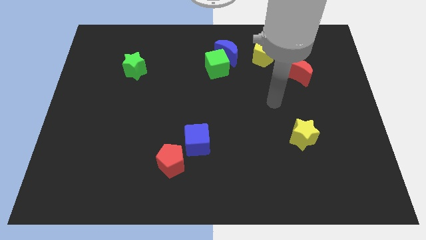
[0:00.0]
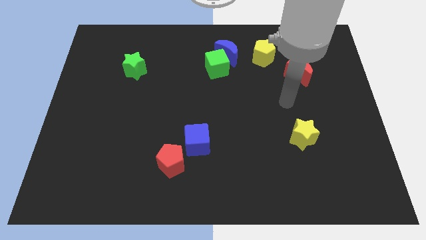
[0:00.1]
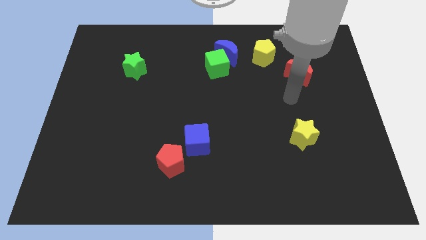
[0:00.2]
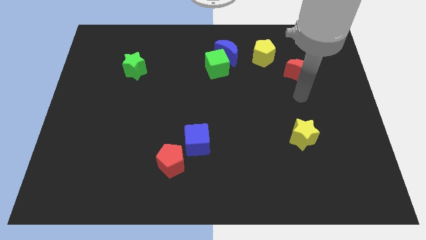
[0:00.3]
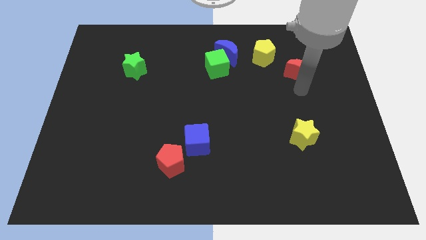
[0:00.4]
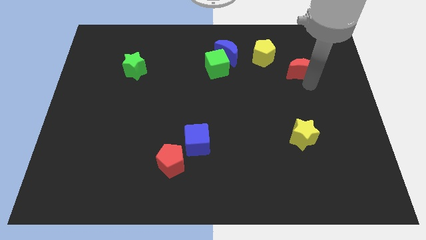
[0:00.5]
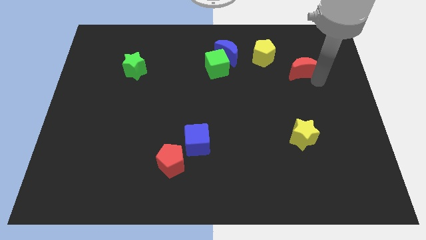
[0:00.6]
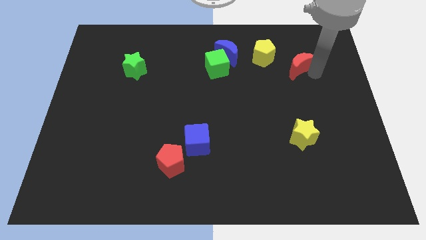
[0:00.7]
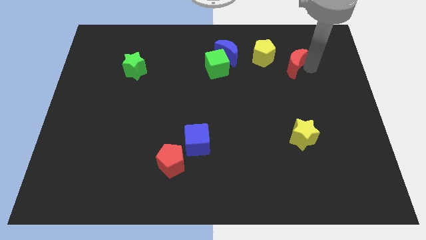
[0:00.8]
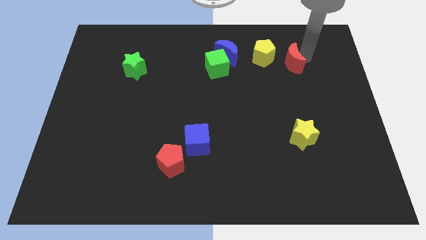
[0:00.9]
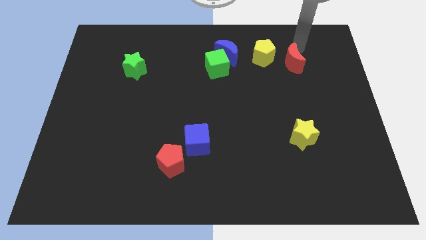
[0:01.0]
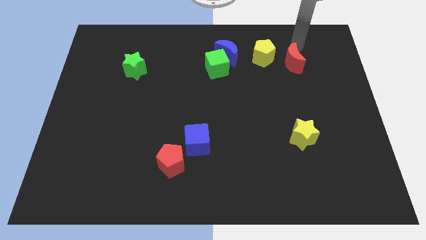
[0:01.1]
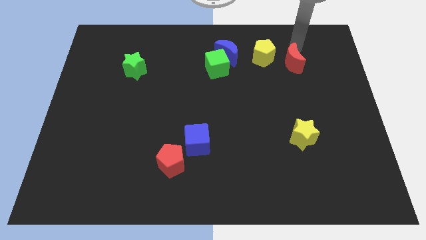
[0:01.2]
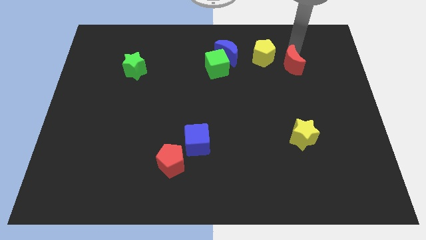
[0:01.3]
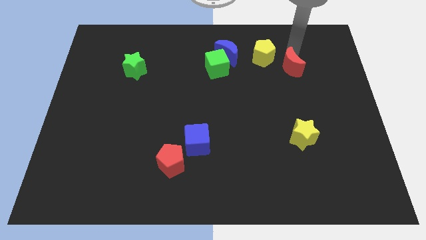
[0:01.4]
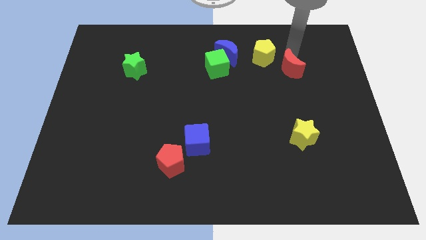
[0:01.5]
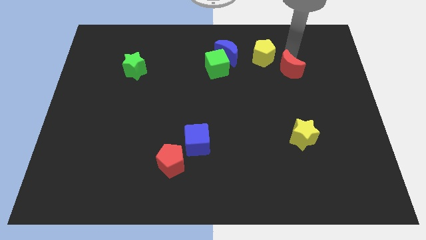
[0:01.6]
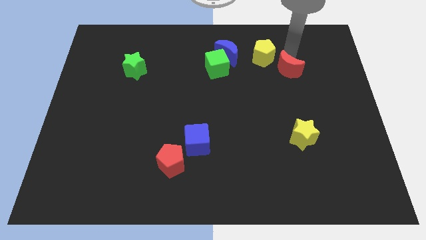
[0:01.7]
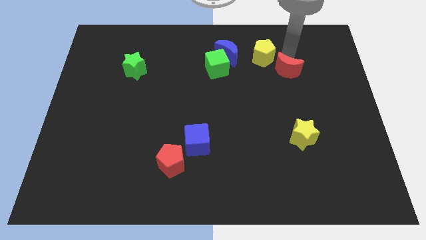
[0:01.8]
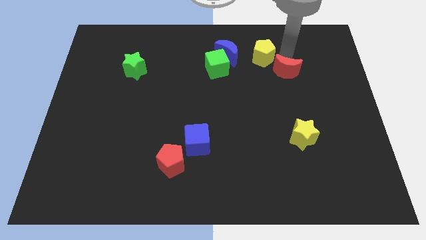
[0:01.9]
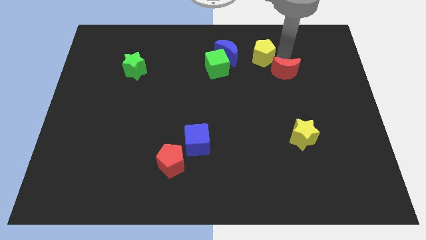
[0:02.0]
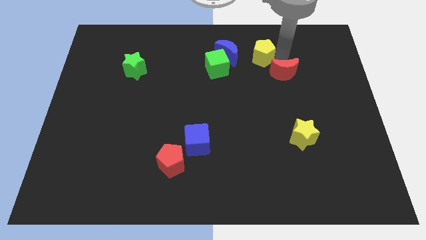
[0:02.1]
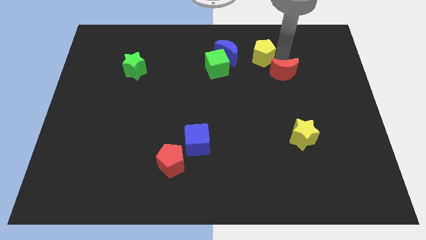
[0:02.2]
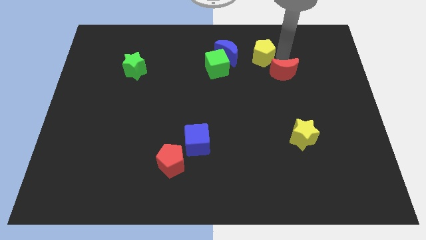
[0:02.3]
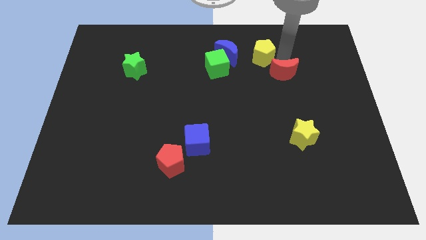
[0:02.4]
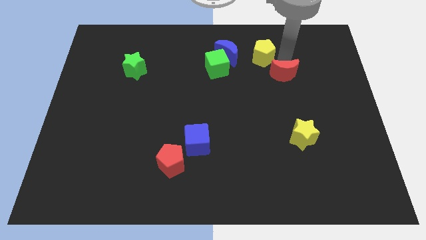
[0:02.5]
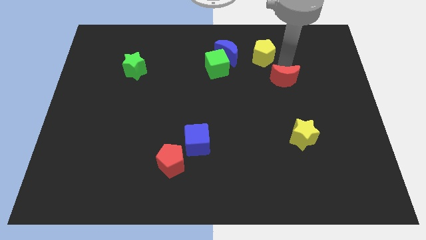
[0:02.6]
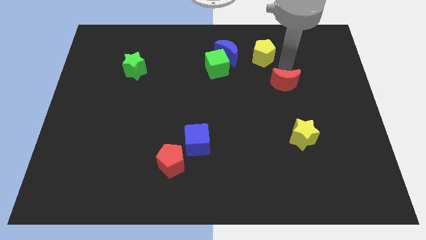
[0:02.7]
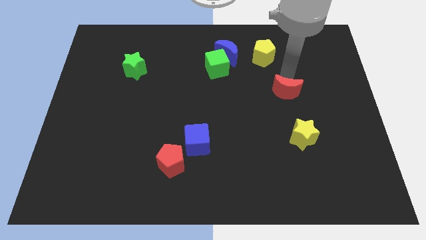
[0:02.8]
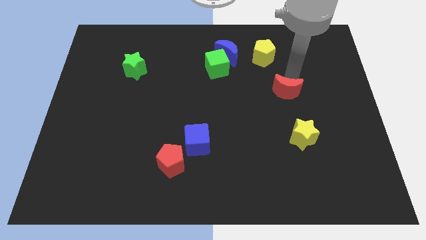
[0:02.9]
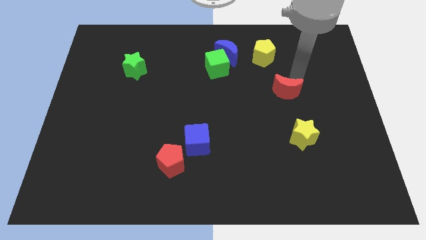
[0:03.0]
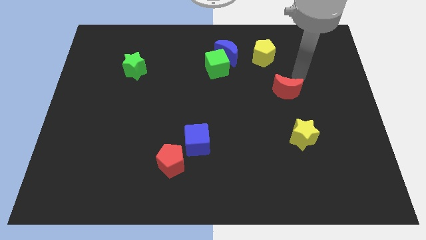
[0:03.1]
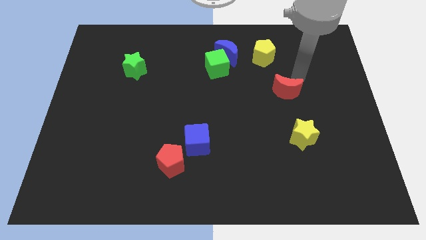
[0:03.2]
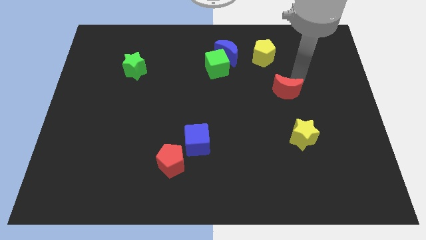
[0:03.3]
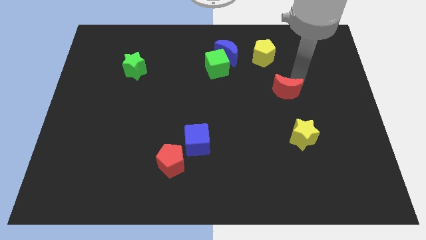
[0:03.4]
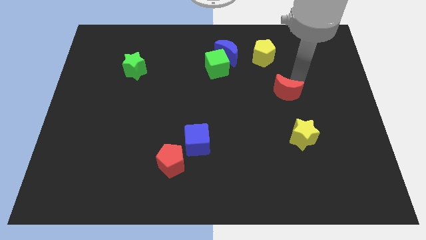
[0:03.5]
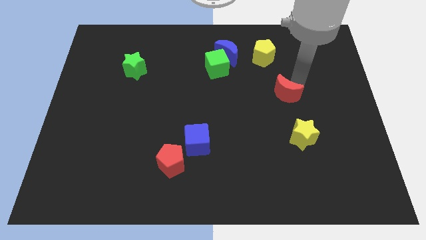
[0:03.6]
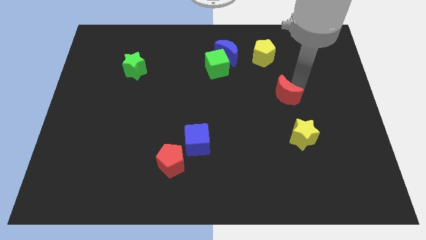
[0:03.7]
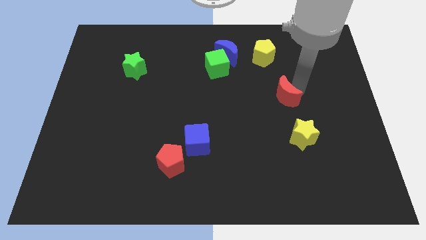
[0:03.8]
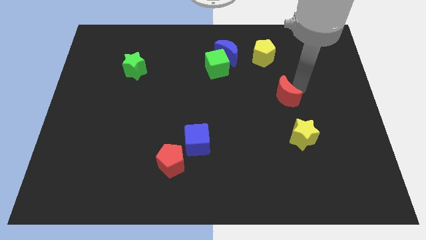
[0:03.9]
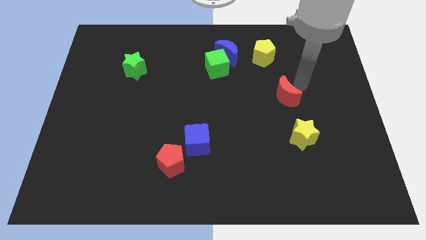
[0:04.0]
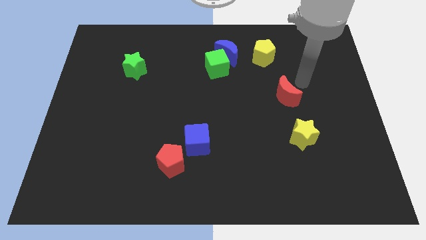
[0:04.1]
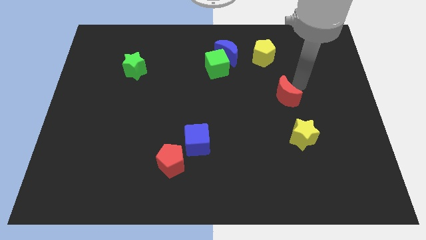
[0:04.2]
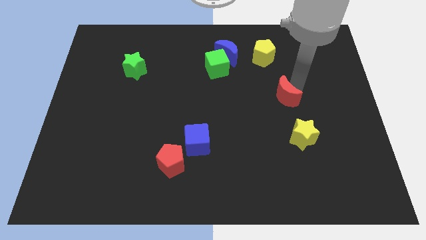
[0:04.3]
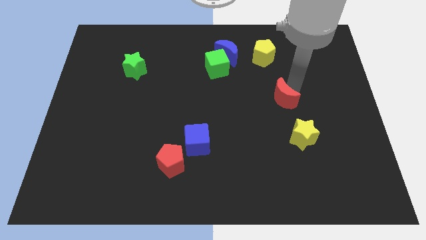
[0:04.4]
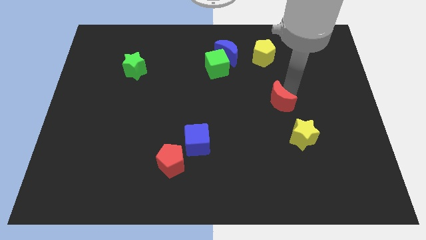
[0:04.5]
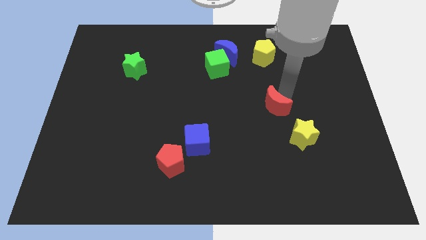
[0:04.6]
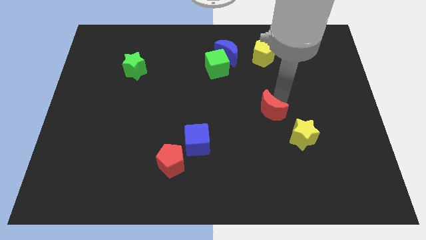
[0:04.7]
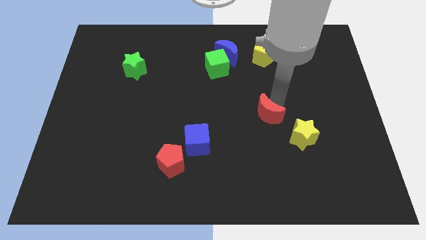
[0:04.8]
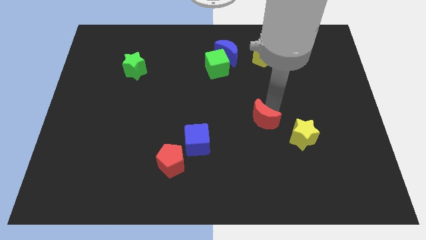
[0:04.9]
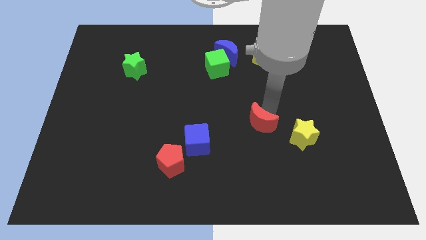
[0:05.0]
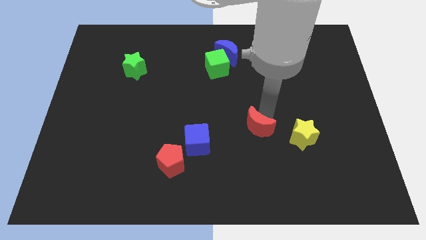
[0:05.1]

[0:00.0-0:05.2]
push the red moon to the right side of the blue cube

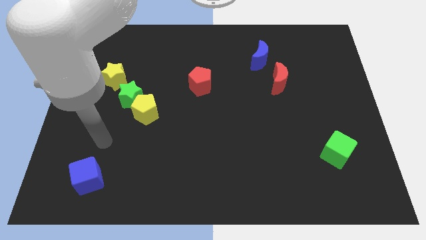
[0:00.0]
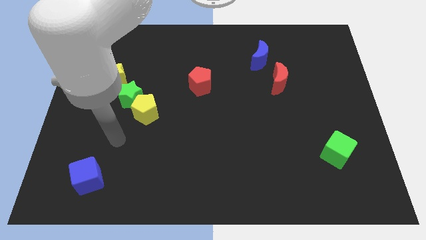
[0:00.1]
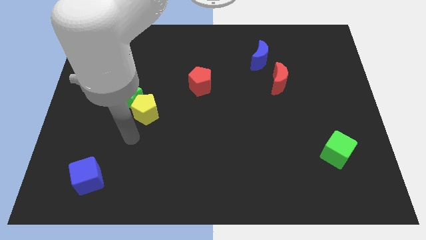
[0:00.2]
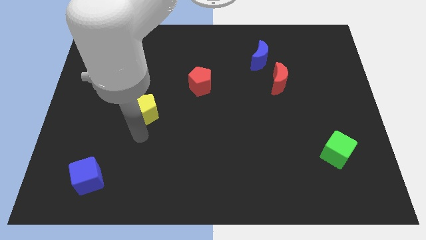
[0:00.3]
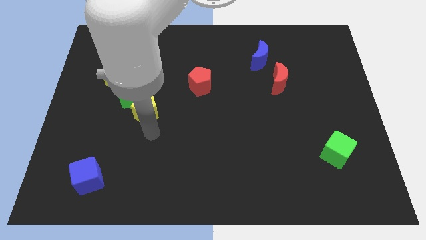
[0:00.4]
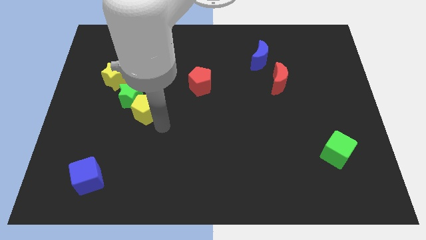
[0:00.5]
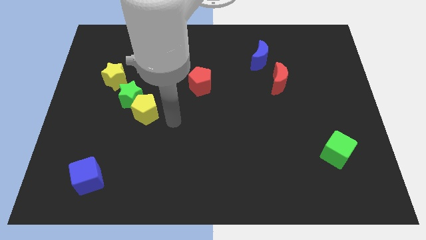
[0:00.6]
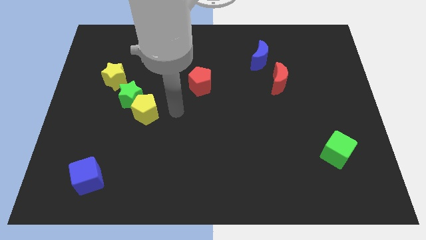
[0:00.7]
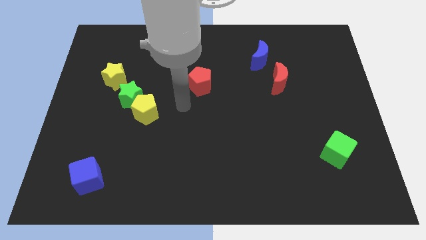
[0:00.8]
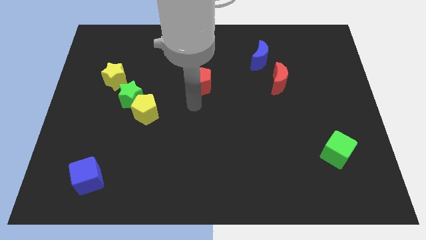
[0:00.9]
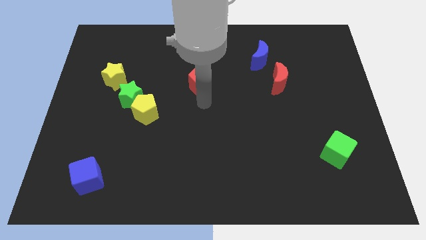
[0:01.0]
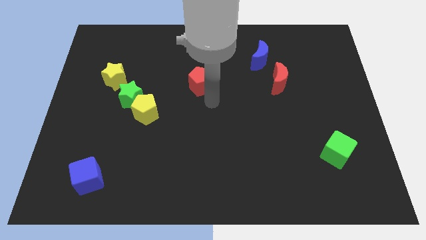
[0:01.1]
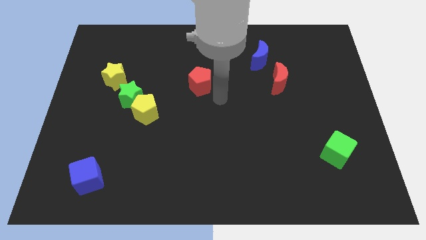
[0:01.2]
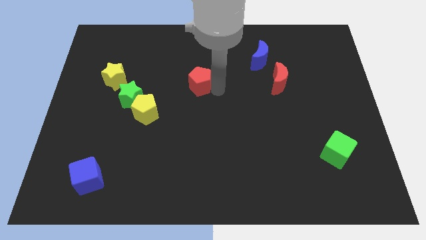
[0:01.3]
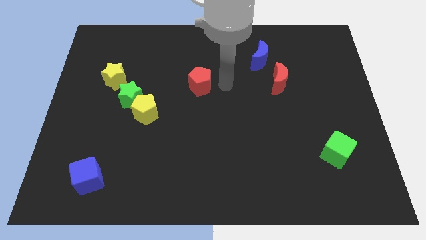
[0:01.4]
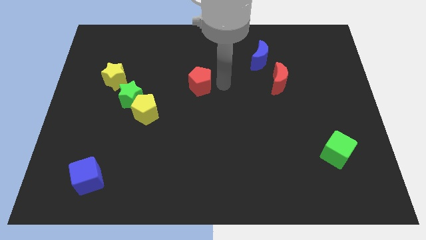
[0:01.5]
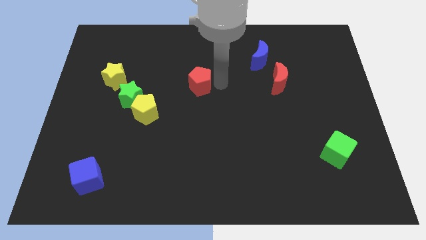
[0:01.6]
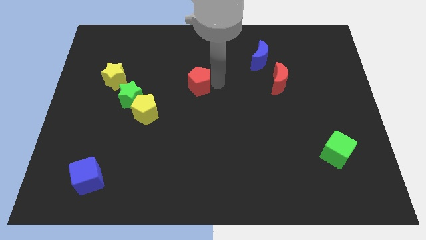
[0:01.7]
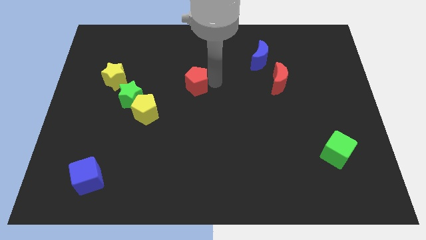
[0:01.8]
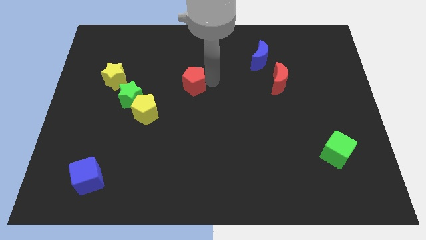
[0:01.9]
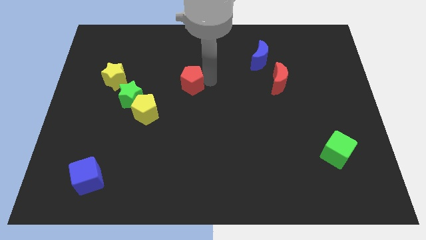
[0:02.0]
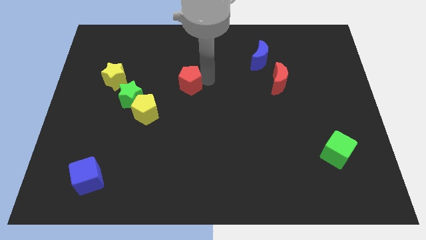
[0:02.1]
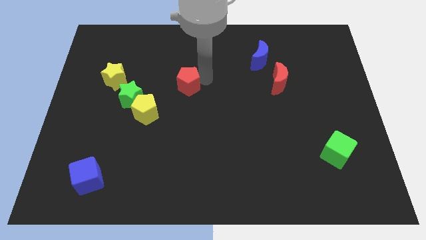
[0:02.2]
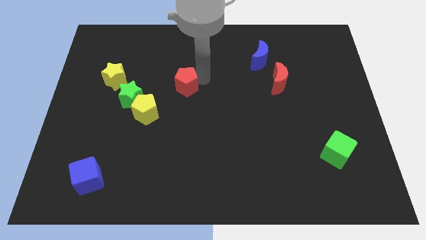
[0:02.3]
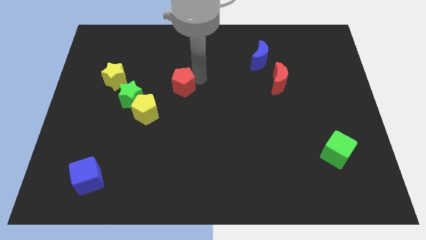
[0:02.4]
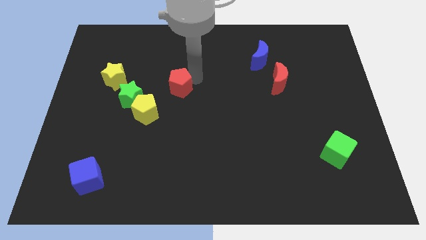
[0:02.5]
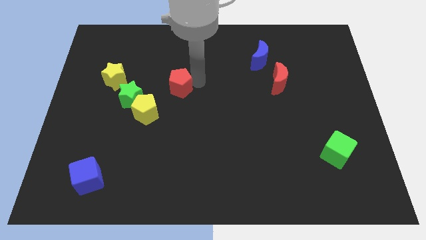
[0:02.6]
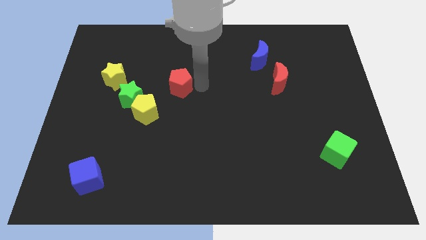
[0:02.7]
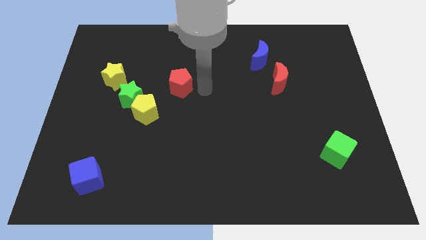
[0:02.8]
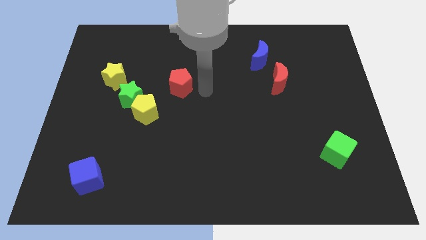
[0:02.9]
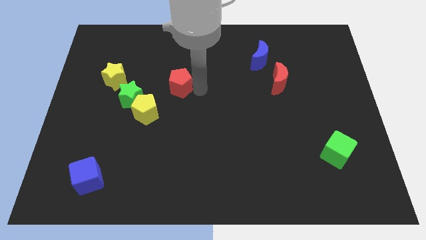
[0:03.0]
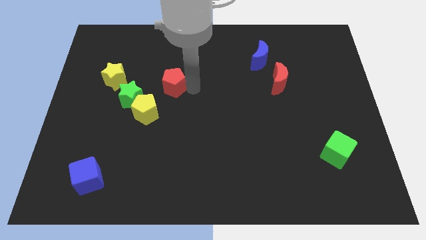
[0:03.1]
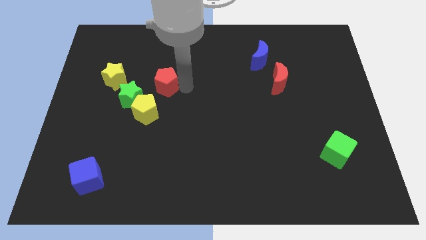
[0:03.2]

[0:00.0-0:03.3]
push the red pentagon to the top of the yellow pentagon
